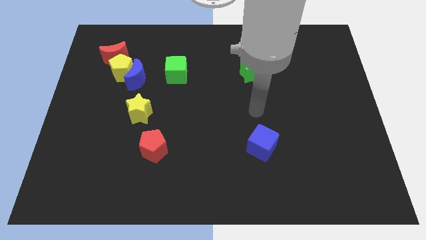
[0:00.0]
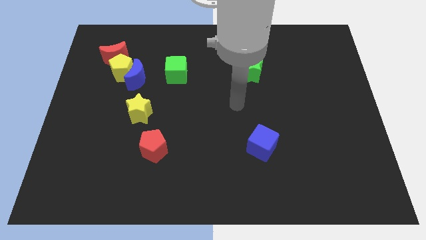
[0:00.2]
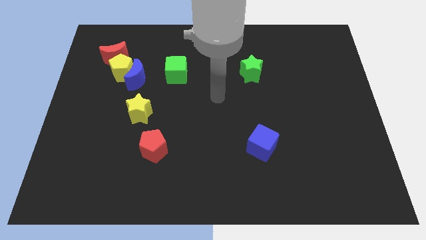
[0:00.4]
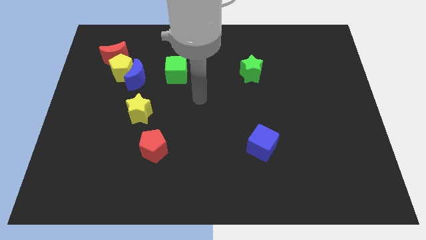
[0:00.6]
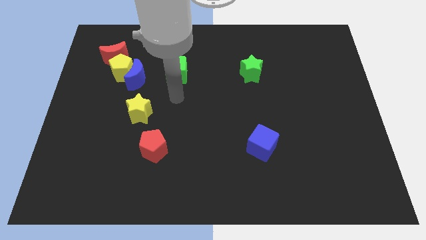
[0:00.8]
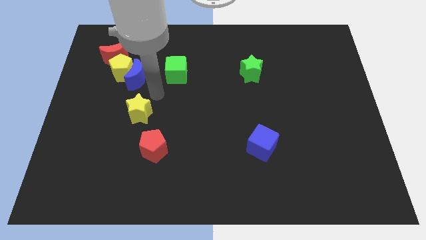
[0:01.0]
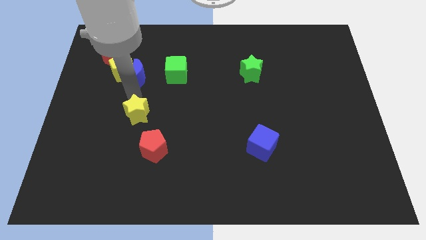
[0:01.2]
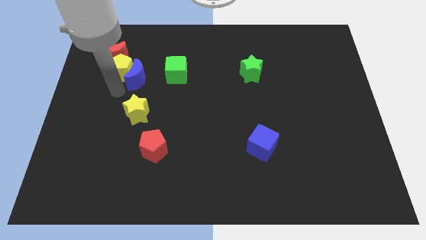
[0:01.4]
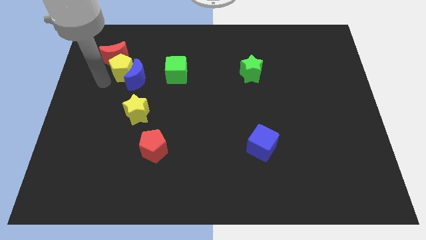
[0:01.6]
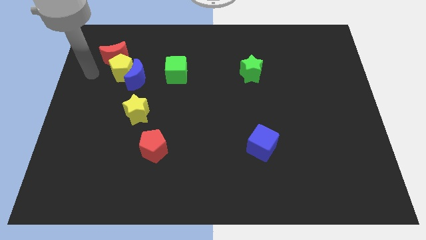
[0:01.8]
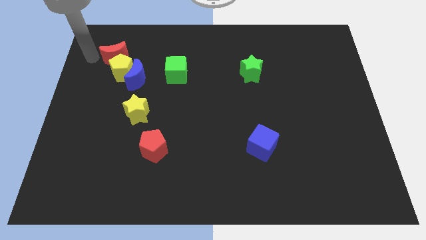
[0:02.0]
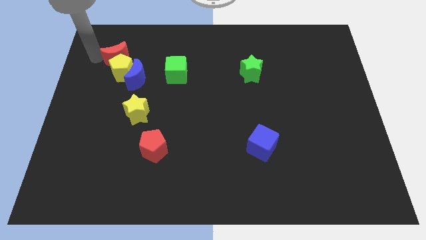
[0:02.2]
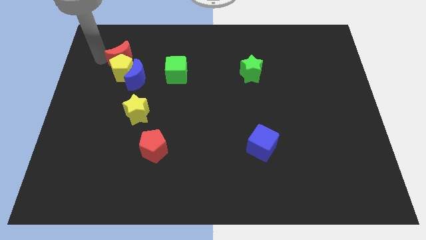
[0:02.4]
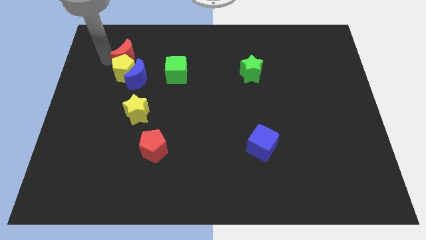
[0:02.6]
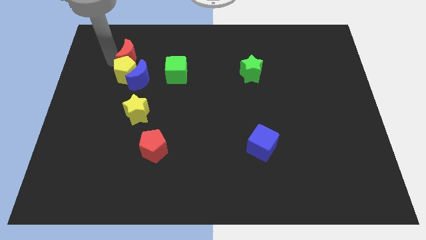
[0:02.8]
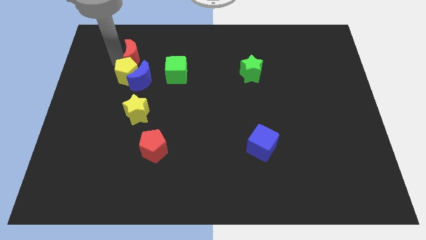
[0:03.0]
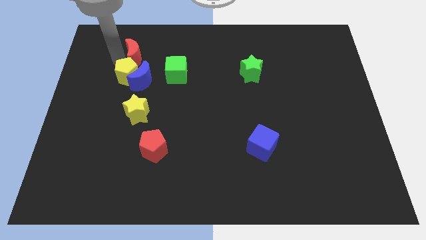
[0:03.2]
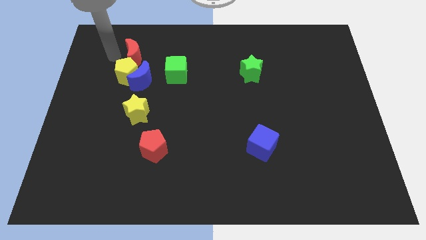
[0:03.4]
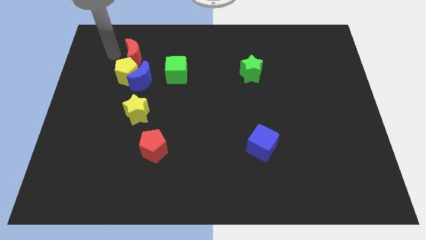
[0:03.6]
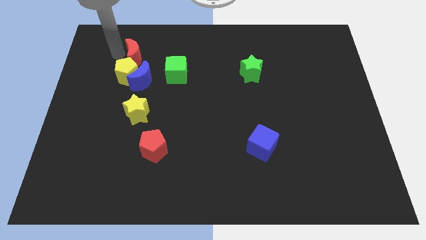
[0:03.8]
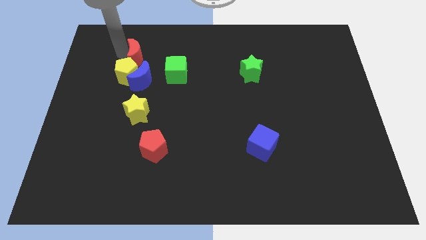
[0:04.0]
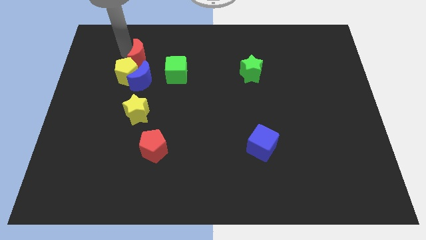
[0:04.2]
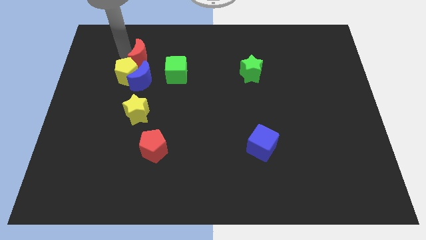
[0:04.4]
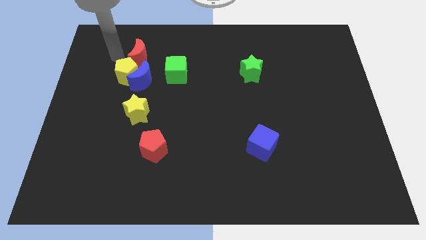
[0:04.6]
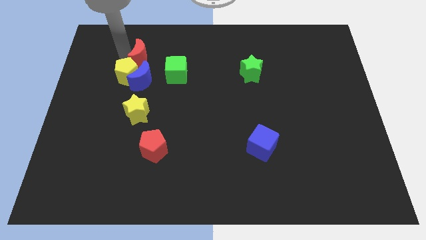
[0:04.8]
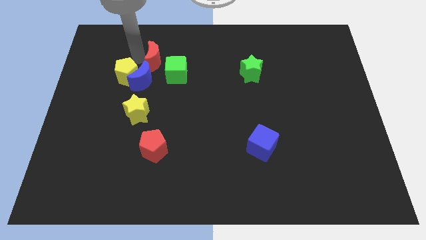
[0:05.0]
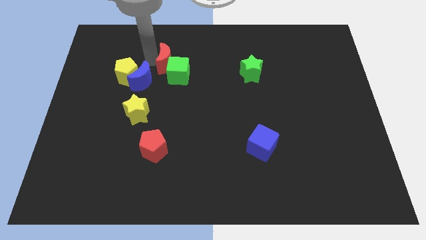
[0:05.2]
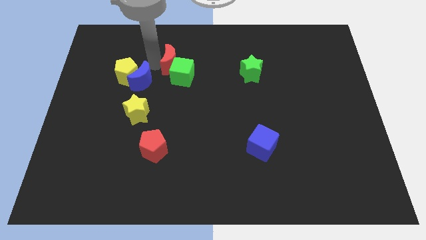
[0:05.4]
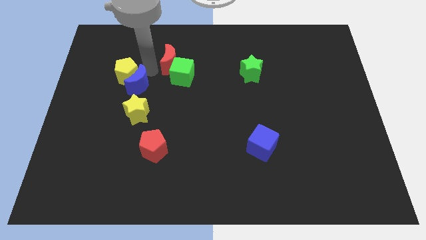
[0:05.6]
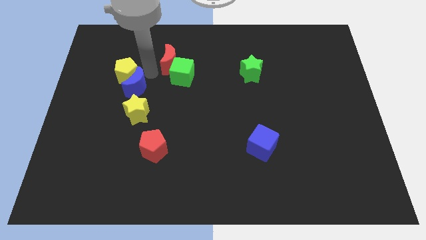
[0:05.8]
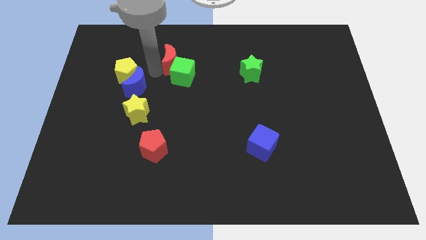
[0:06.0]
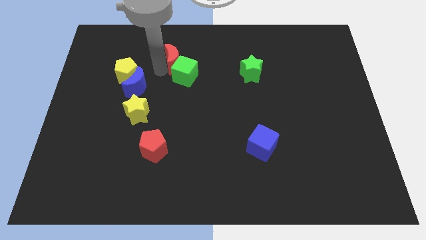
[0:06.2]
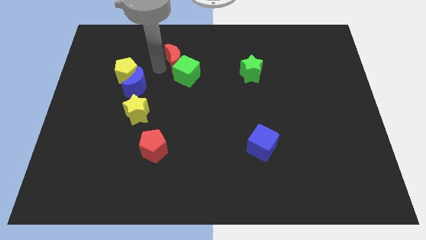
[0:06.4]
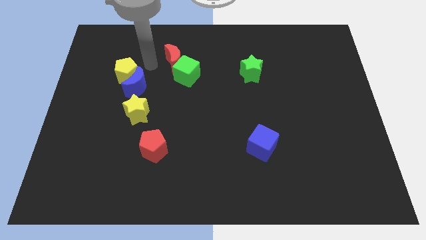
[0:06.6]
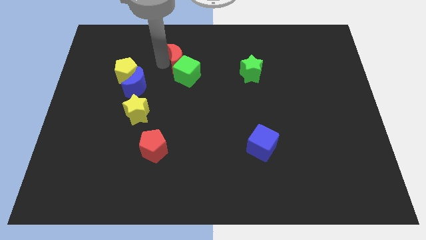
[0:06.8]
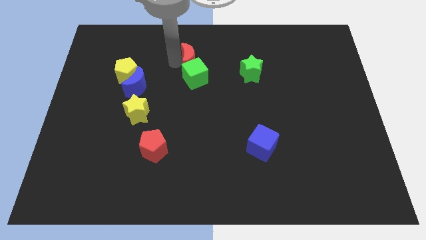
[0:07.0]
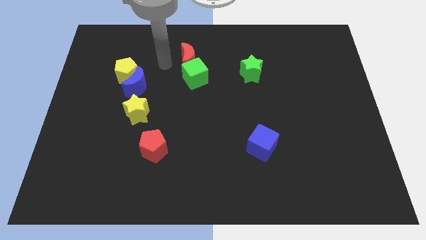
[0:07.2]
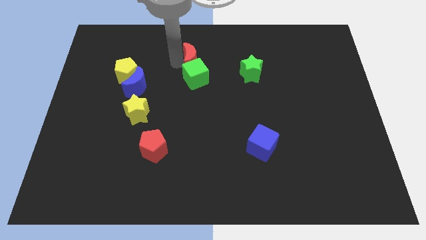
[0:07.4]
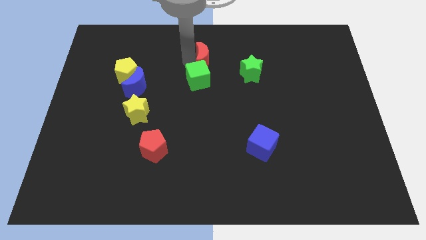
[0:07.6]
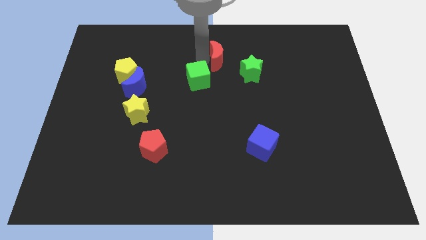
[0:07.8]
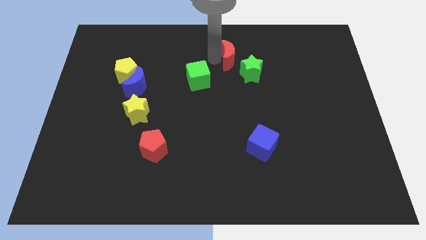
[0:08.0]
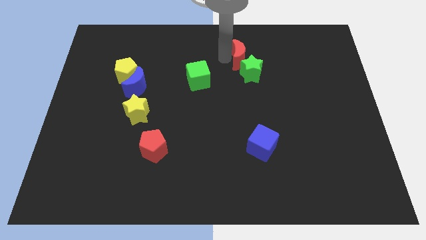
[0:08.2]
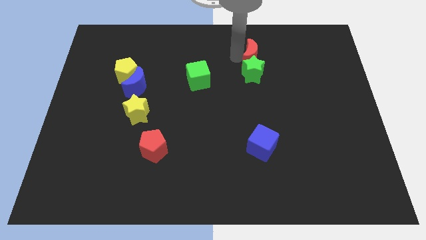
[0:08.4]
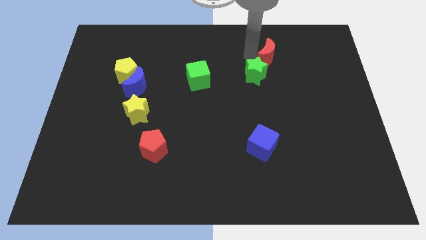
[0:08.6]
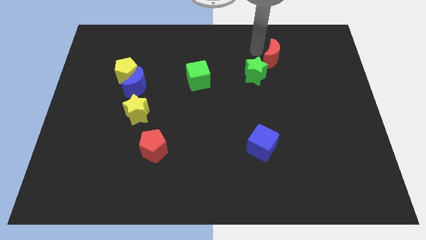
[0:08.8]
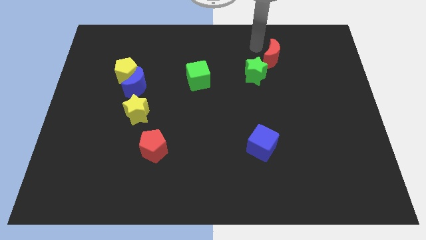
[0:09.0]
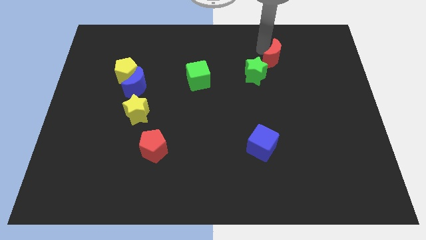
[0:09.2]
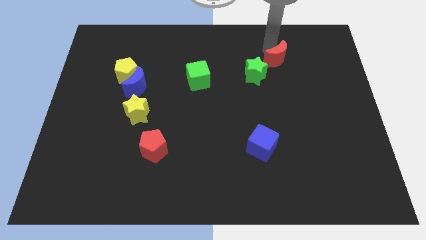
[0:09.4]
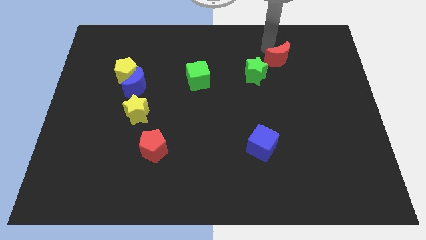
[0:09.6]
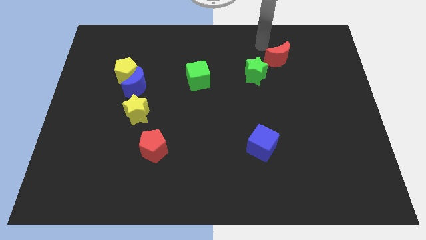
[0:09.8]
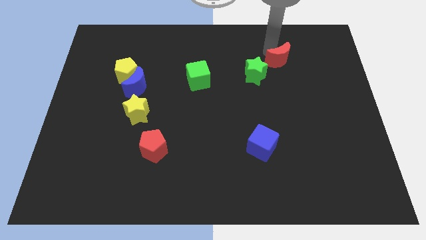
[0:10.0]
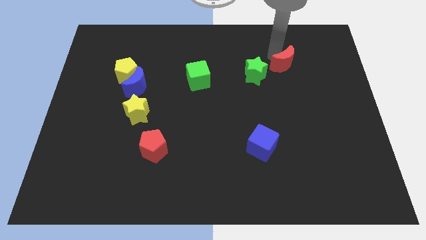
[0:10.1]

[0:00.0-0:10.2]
move the red moon just right of the green star

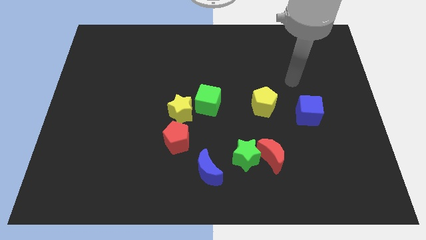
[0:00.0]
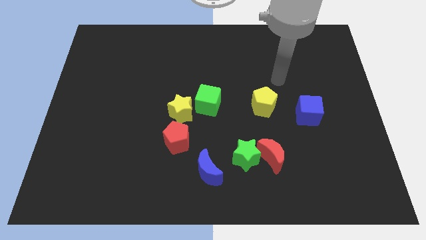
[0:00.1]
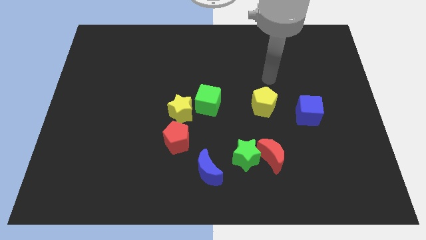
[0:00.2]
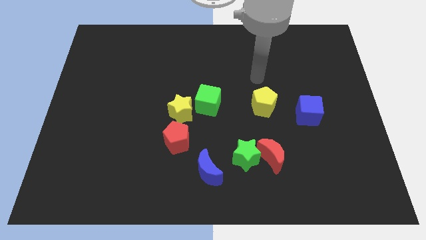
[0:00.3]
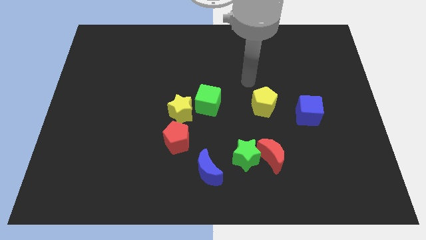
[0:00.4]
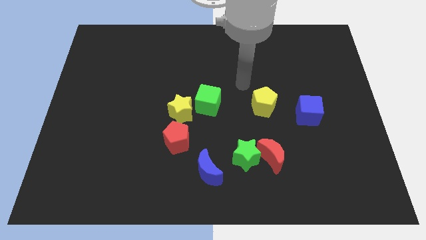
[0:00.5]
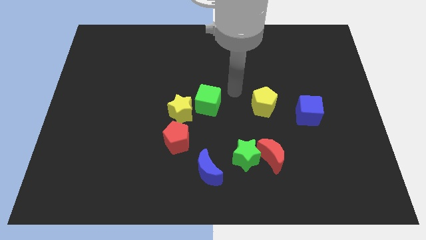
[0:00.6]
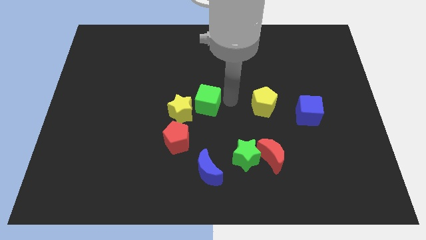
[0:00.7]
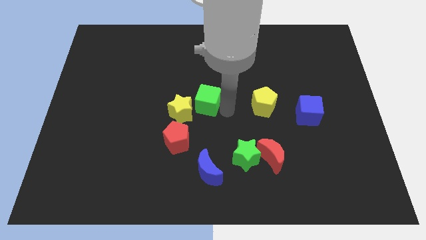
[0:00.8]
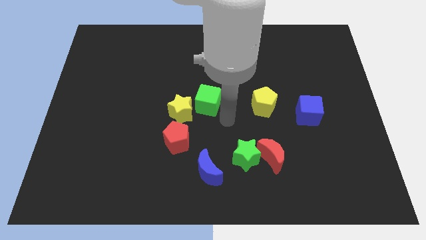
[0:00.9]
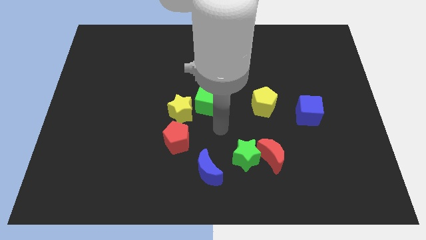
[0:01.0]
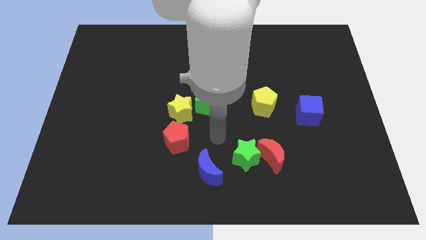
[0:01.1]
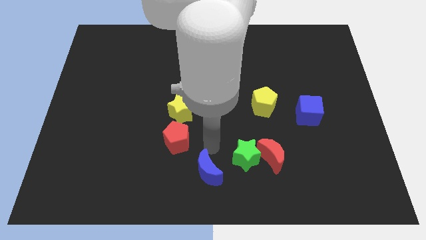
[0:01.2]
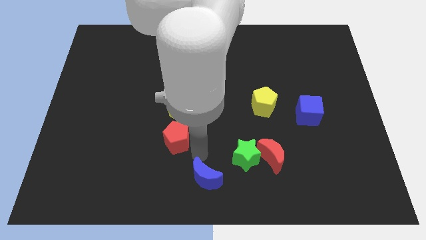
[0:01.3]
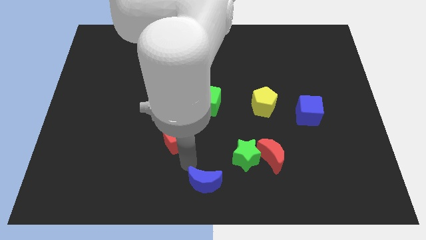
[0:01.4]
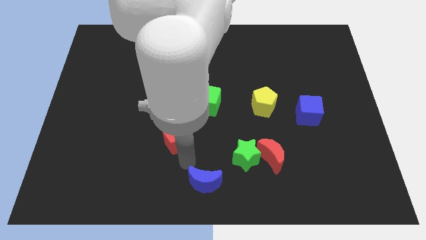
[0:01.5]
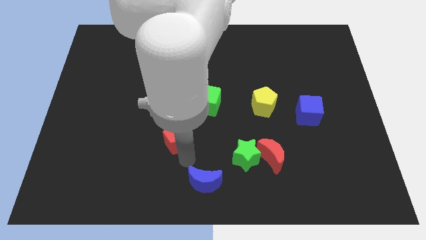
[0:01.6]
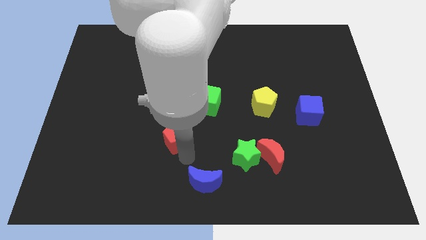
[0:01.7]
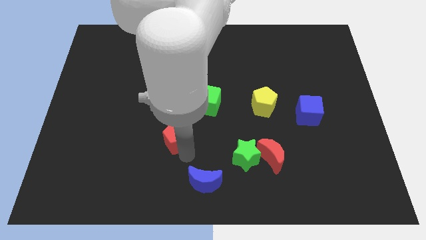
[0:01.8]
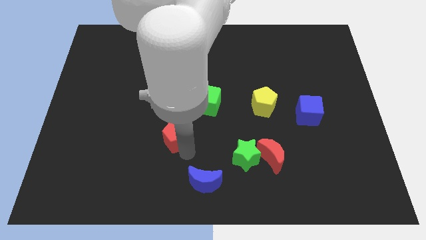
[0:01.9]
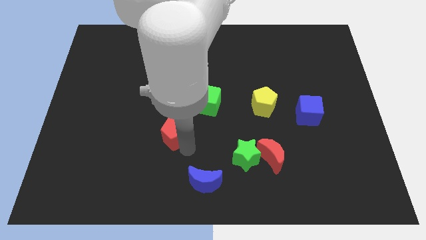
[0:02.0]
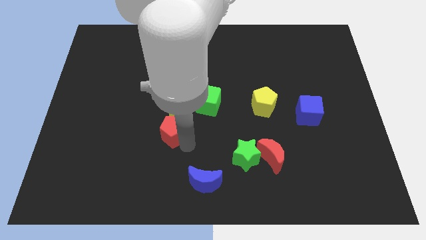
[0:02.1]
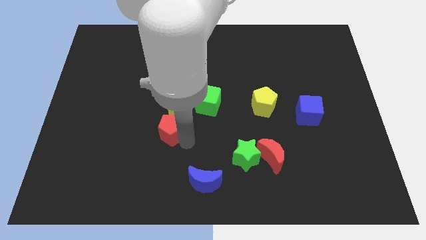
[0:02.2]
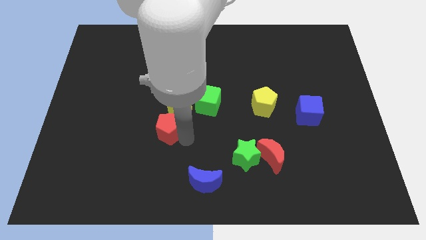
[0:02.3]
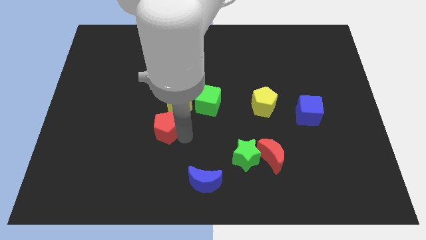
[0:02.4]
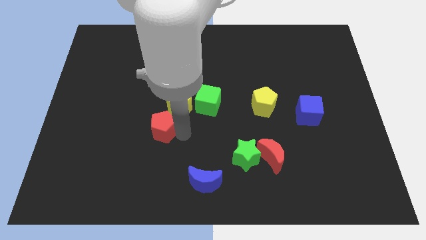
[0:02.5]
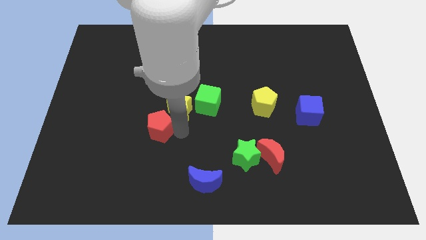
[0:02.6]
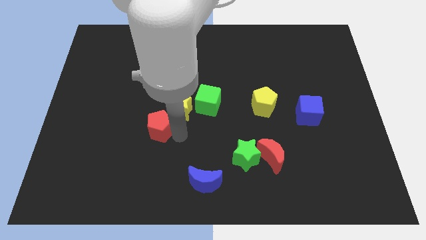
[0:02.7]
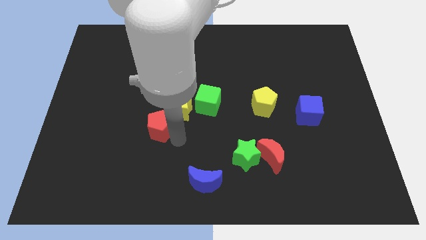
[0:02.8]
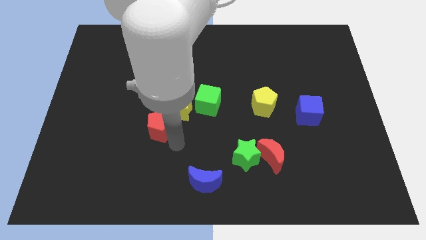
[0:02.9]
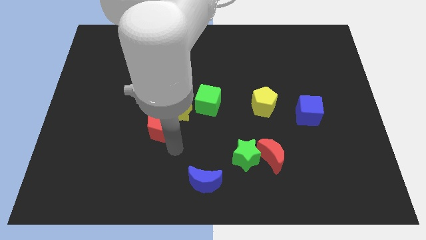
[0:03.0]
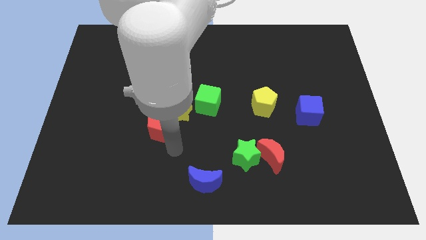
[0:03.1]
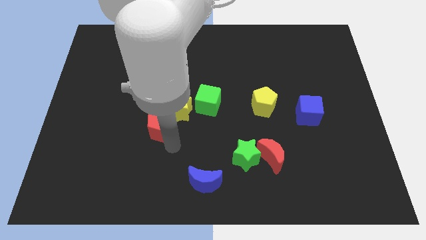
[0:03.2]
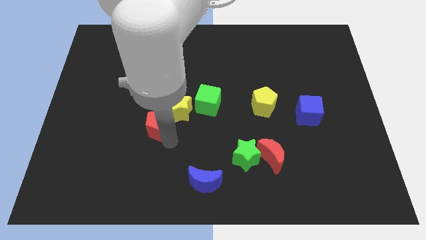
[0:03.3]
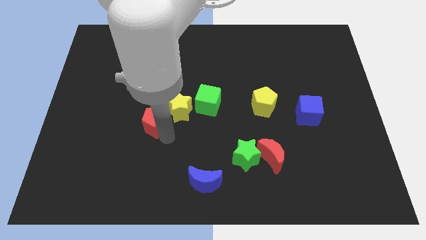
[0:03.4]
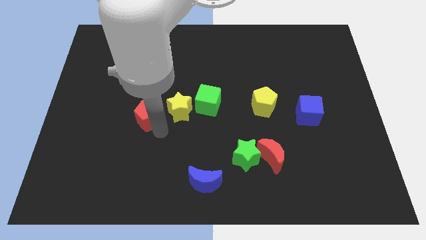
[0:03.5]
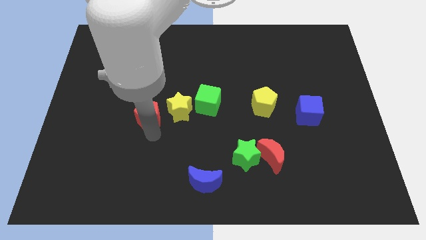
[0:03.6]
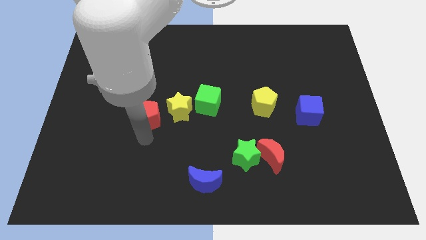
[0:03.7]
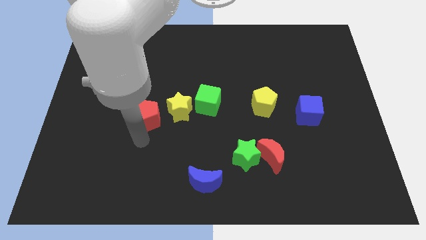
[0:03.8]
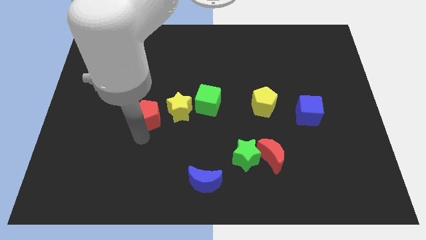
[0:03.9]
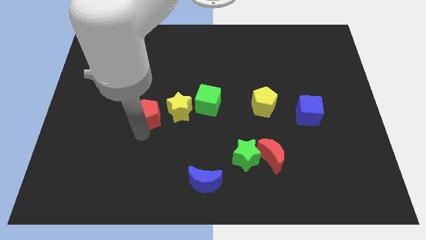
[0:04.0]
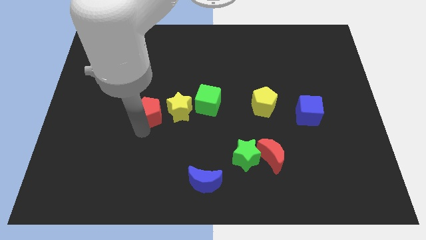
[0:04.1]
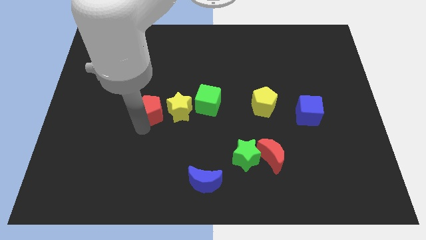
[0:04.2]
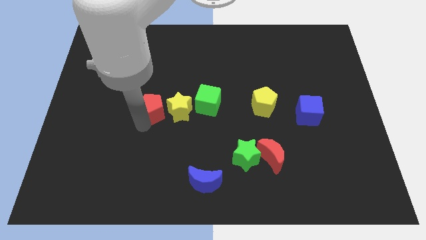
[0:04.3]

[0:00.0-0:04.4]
slide the red pentagon to the top left of the yellow star
